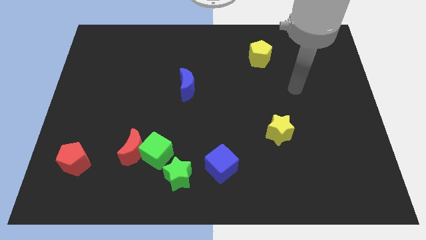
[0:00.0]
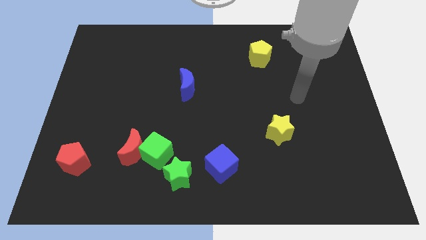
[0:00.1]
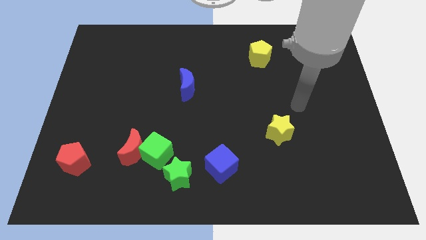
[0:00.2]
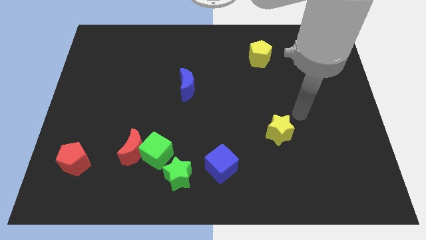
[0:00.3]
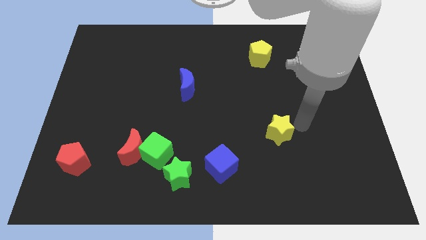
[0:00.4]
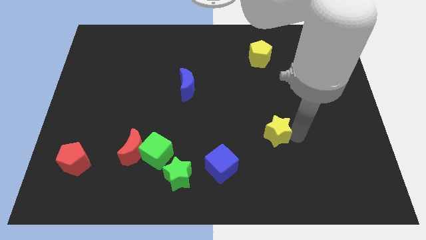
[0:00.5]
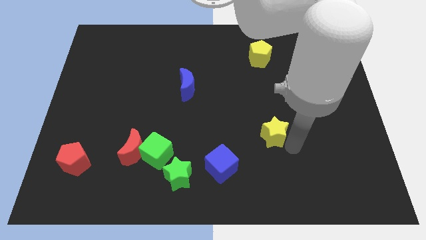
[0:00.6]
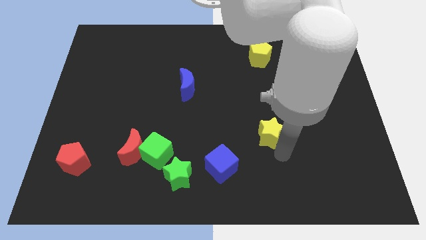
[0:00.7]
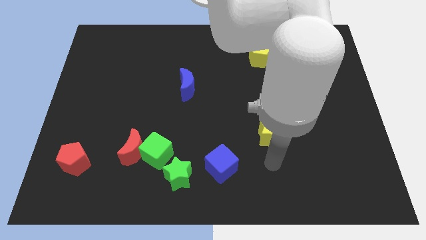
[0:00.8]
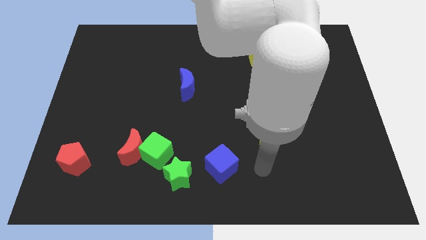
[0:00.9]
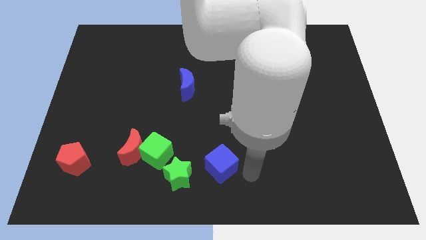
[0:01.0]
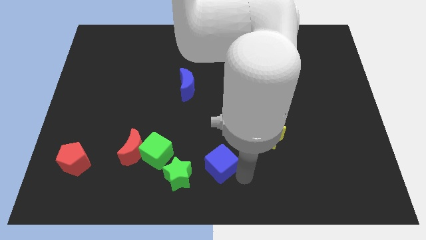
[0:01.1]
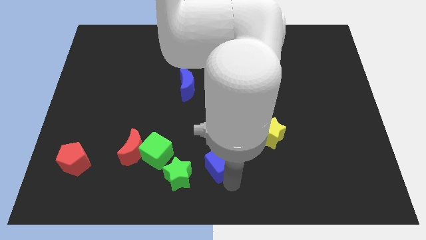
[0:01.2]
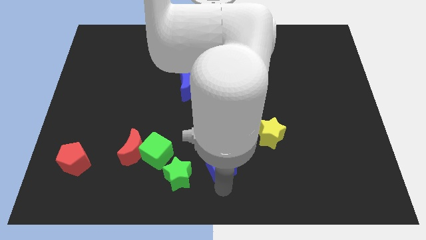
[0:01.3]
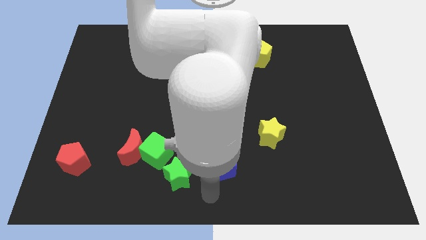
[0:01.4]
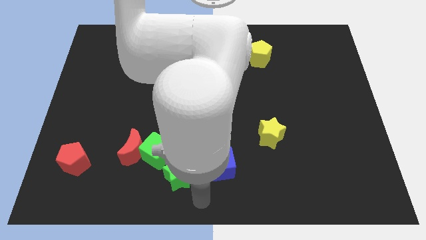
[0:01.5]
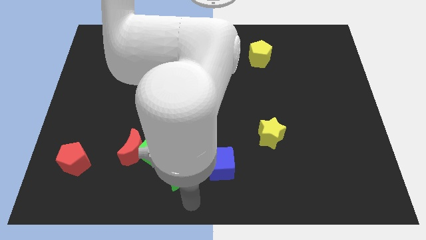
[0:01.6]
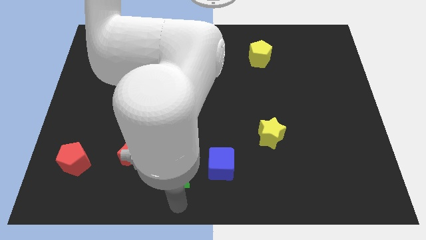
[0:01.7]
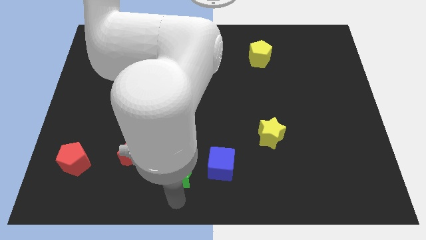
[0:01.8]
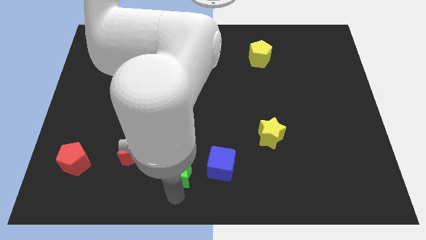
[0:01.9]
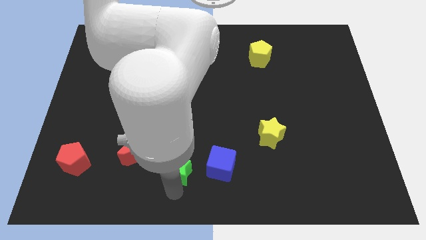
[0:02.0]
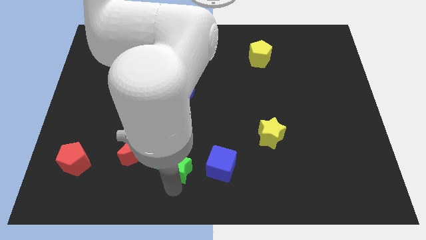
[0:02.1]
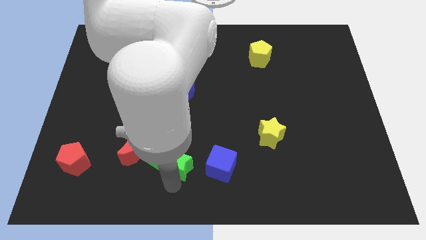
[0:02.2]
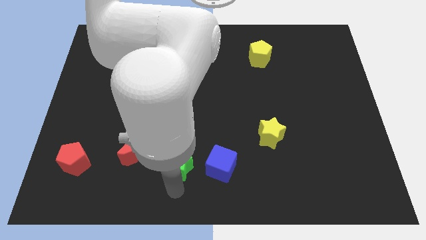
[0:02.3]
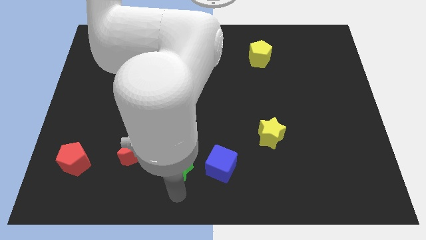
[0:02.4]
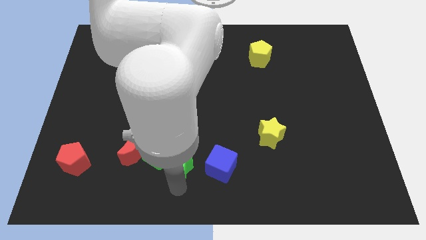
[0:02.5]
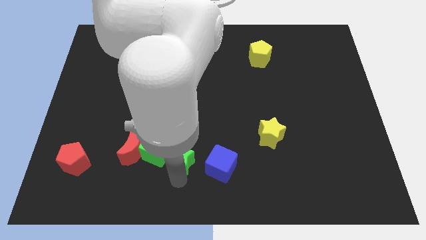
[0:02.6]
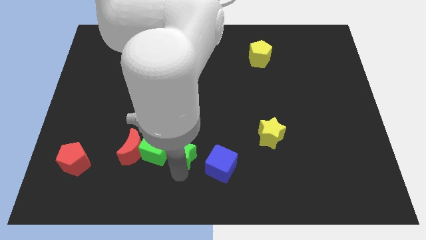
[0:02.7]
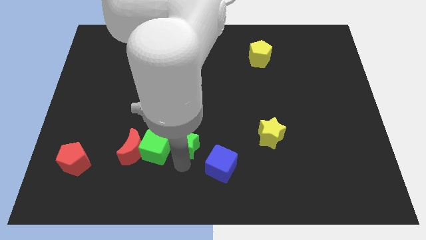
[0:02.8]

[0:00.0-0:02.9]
slide the green star up a little bit

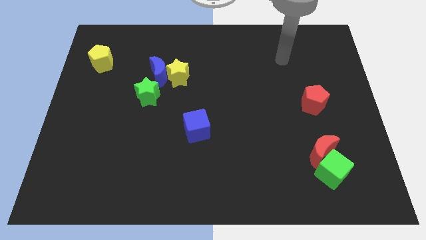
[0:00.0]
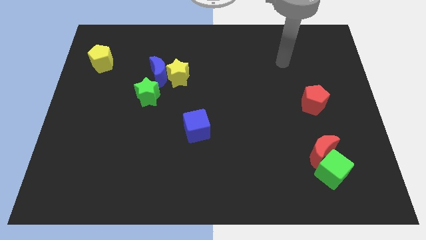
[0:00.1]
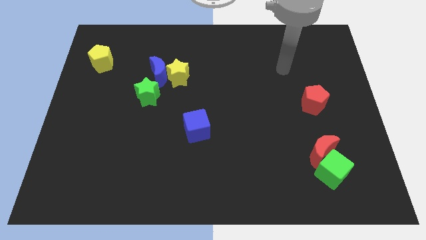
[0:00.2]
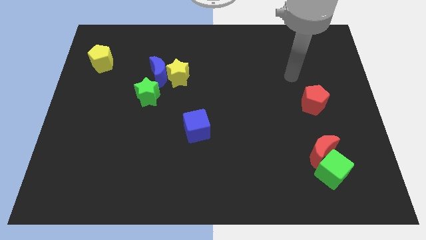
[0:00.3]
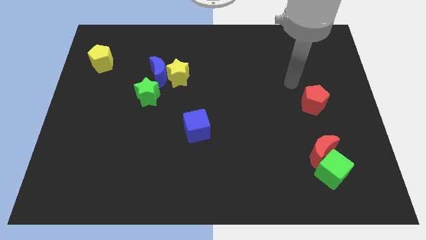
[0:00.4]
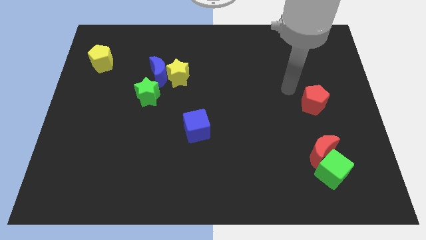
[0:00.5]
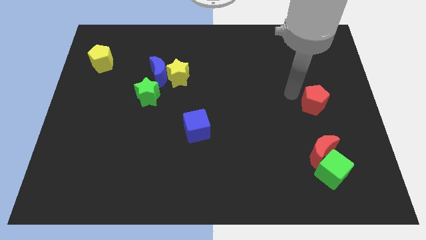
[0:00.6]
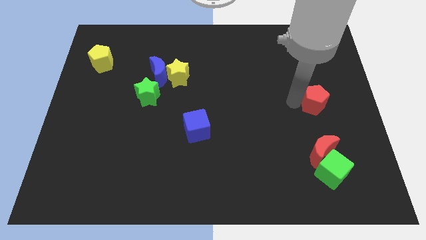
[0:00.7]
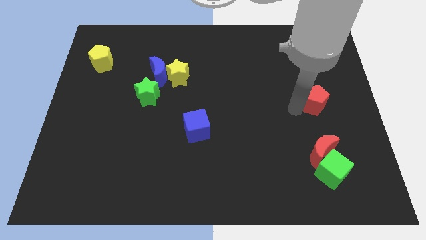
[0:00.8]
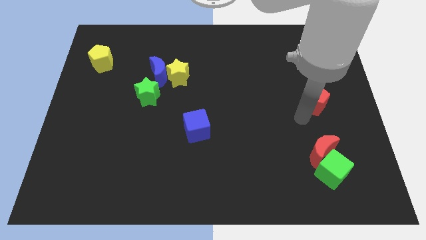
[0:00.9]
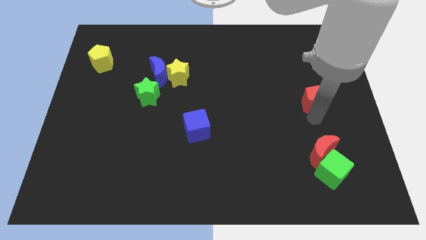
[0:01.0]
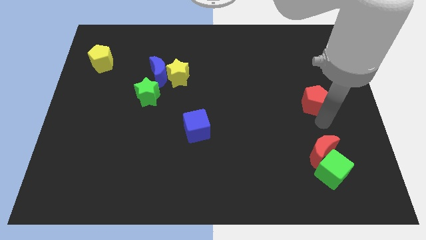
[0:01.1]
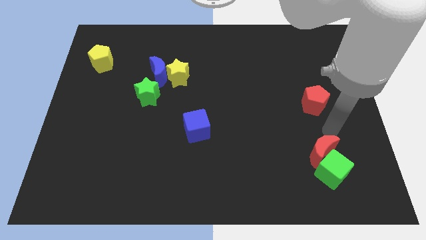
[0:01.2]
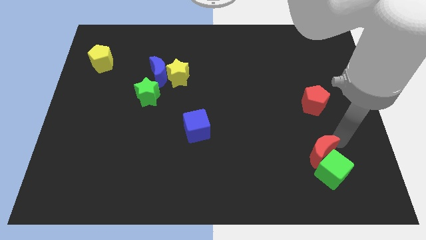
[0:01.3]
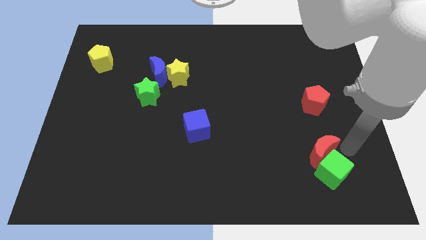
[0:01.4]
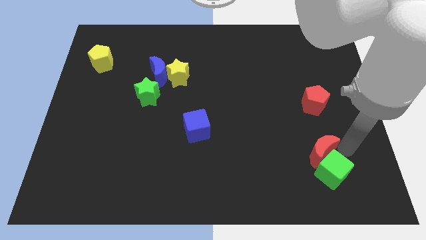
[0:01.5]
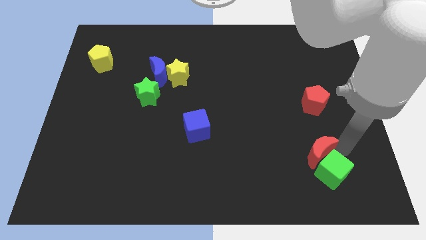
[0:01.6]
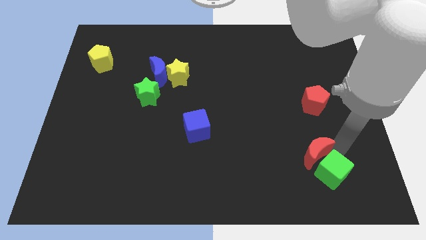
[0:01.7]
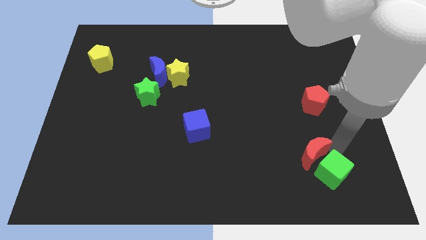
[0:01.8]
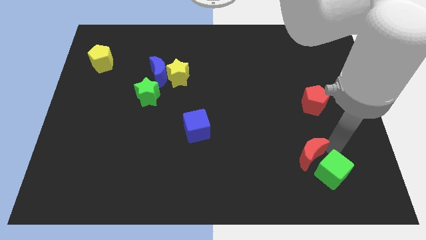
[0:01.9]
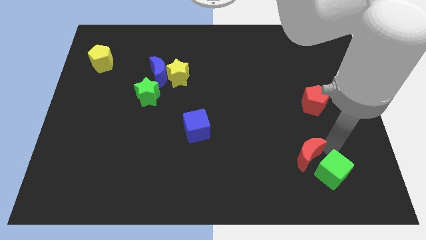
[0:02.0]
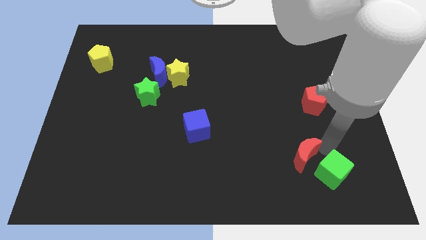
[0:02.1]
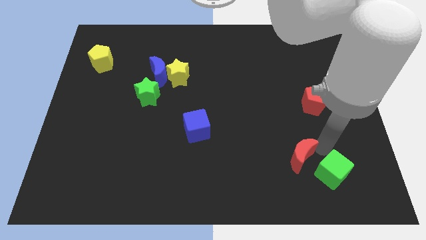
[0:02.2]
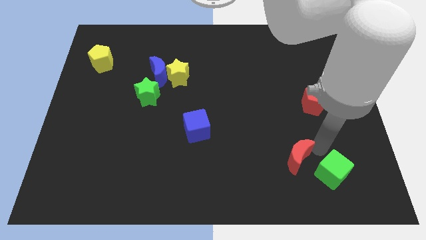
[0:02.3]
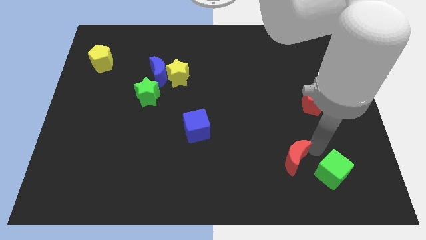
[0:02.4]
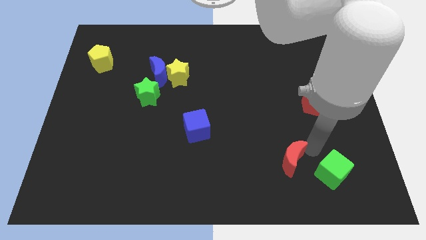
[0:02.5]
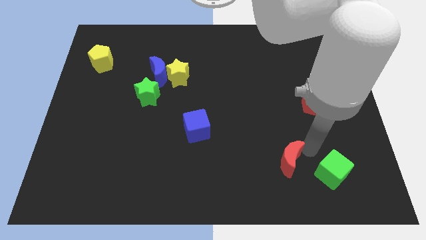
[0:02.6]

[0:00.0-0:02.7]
slide the red moon to the left a little

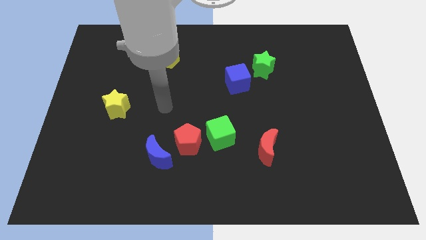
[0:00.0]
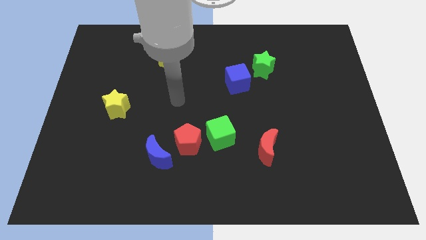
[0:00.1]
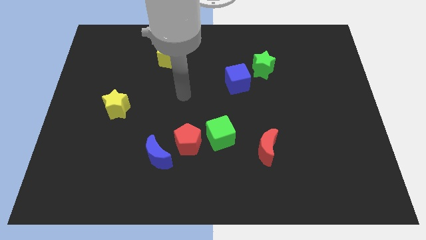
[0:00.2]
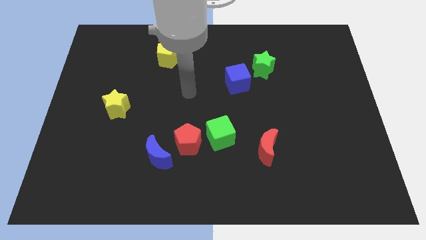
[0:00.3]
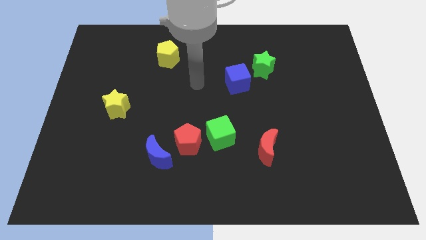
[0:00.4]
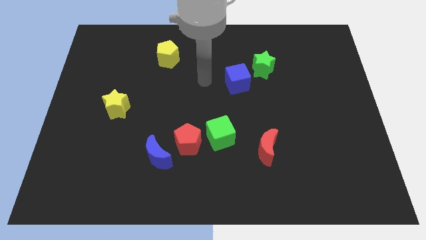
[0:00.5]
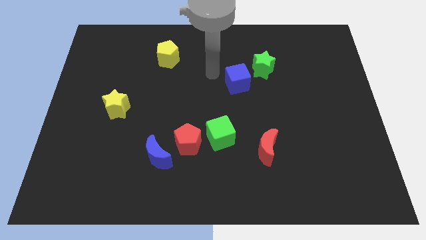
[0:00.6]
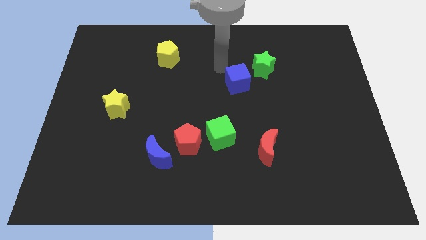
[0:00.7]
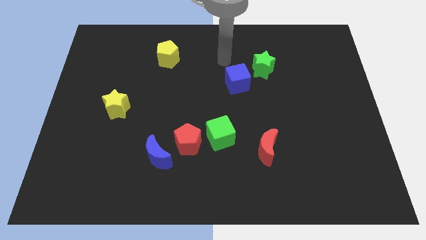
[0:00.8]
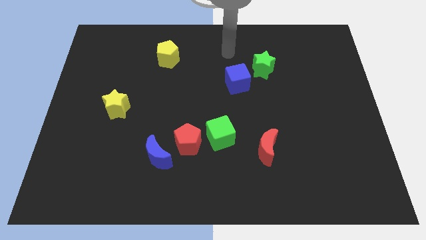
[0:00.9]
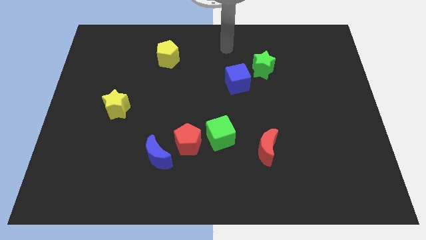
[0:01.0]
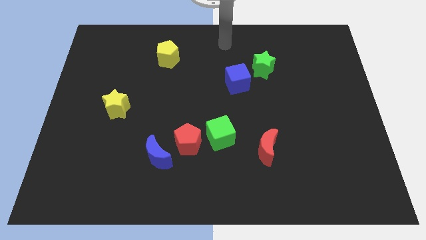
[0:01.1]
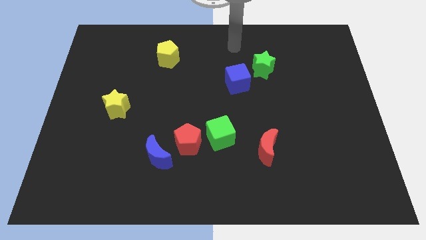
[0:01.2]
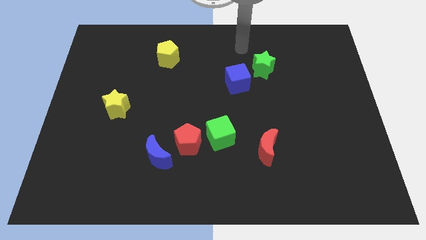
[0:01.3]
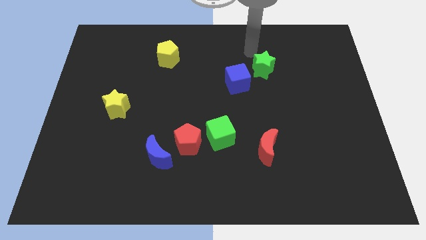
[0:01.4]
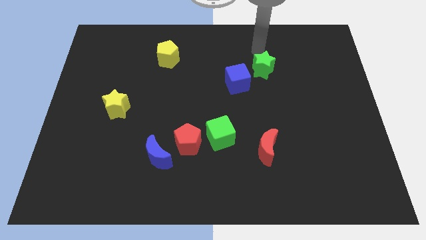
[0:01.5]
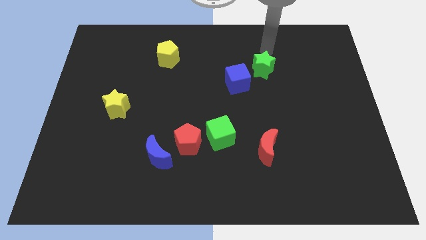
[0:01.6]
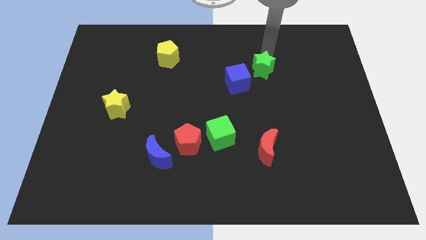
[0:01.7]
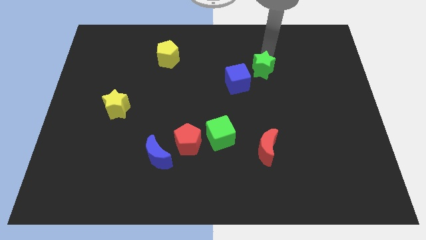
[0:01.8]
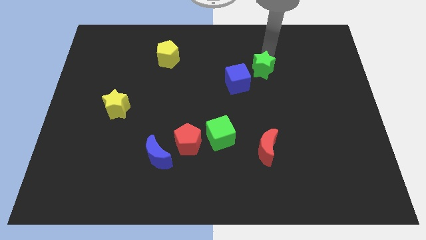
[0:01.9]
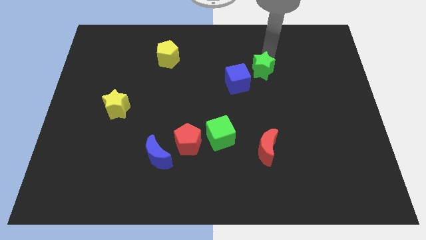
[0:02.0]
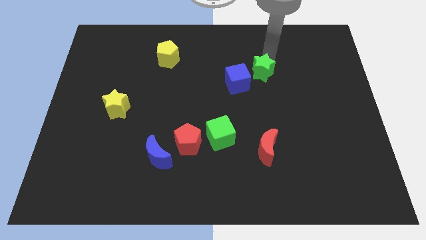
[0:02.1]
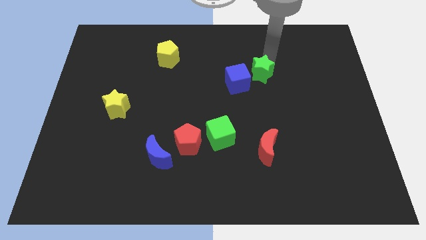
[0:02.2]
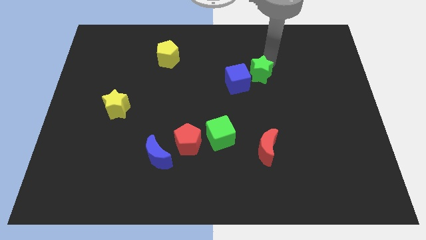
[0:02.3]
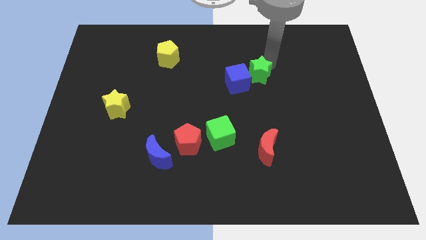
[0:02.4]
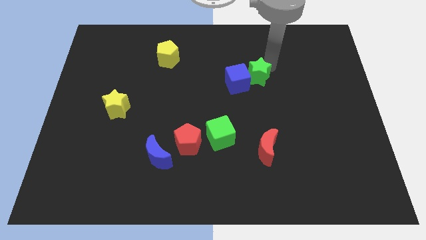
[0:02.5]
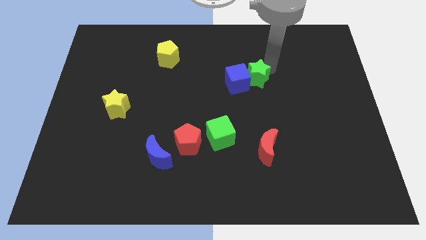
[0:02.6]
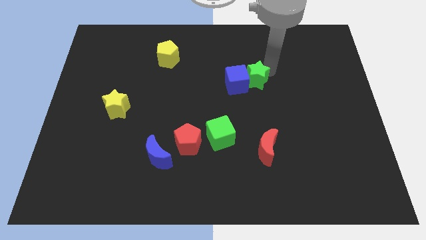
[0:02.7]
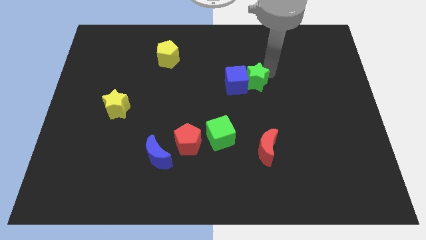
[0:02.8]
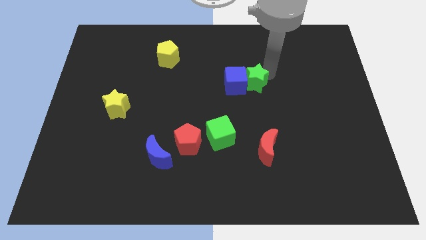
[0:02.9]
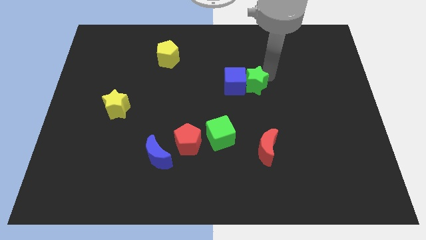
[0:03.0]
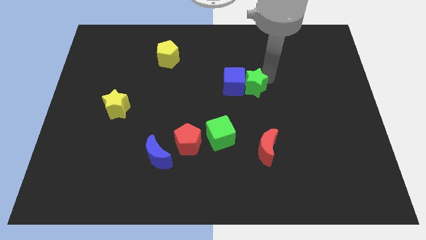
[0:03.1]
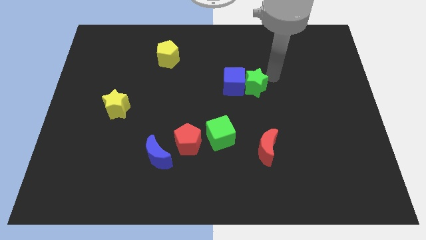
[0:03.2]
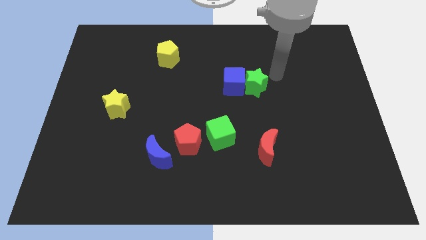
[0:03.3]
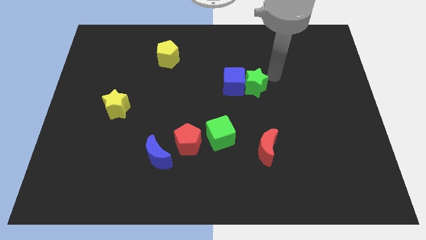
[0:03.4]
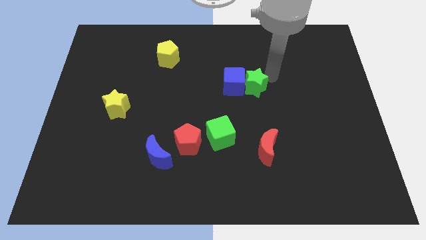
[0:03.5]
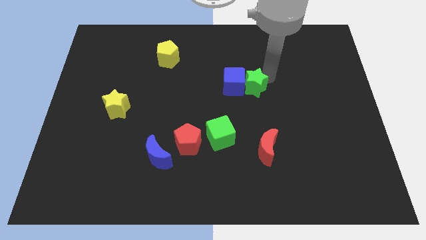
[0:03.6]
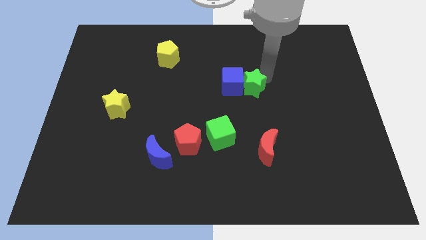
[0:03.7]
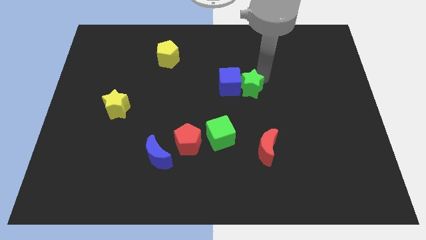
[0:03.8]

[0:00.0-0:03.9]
slightly move the green star down and left
